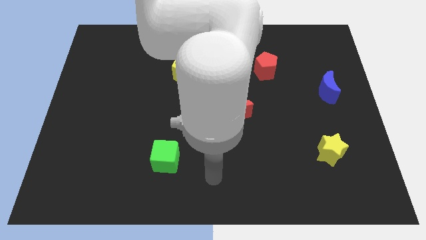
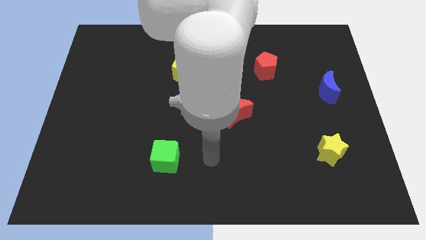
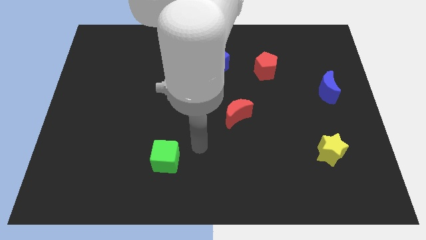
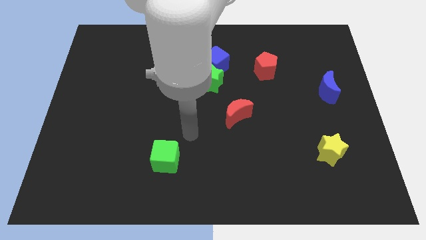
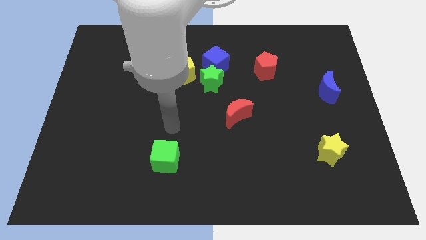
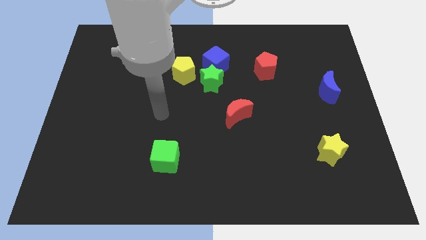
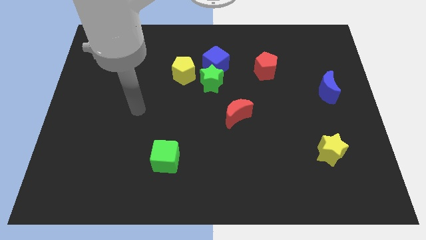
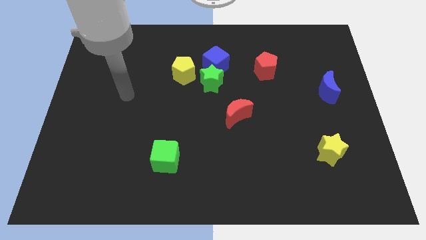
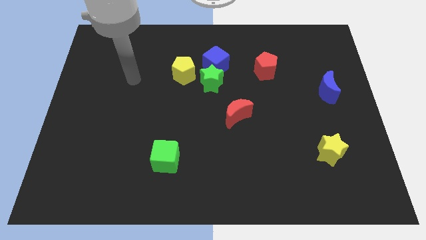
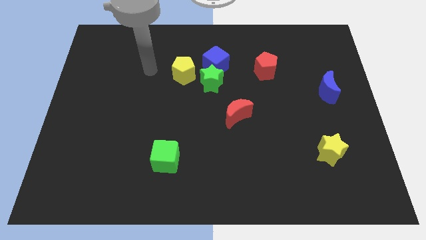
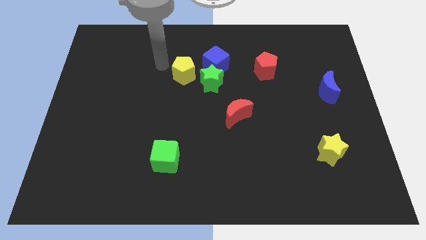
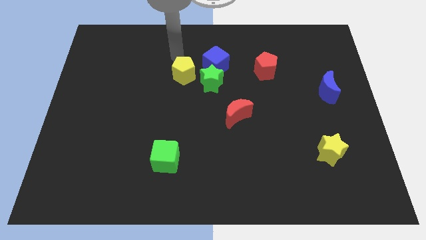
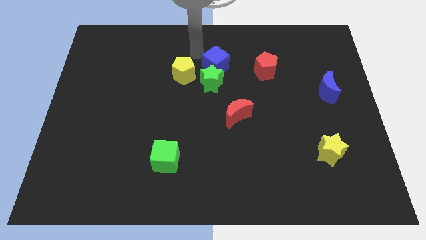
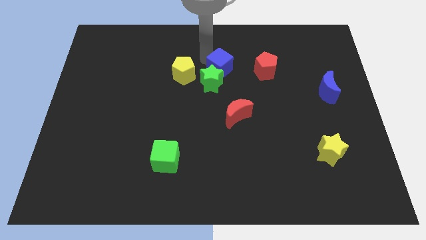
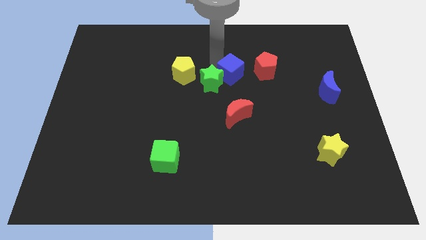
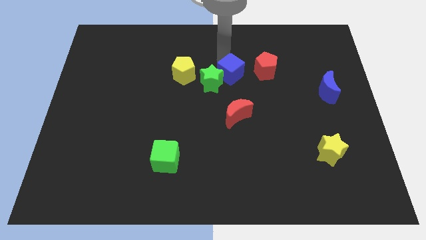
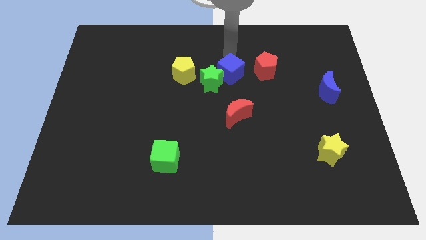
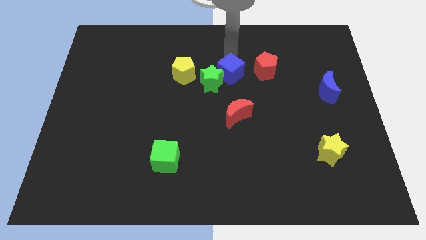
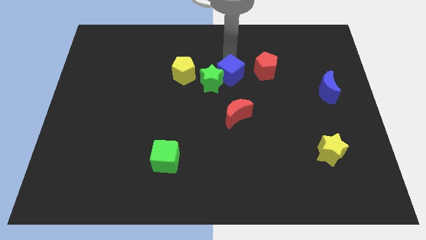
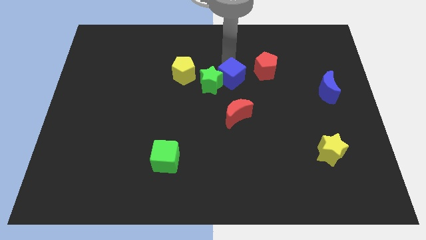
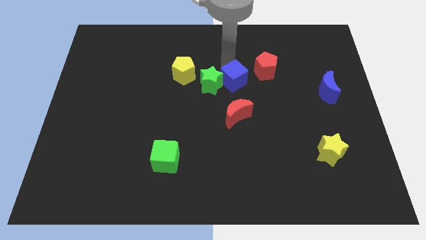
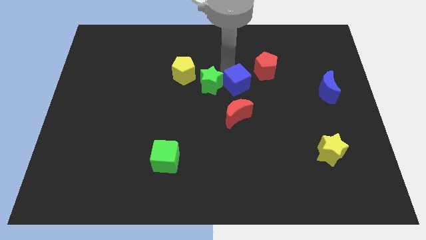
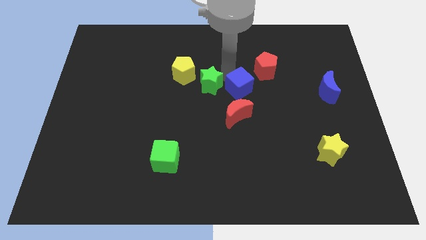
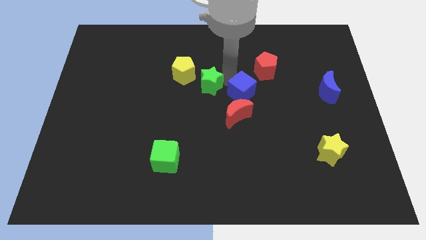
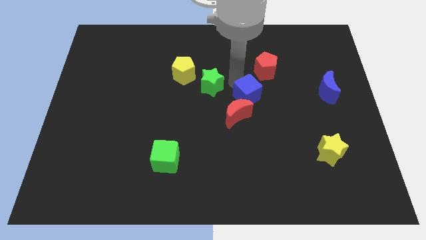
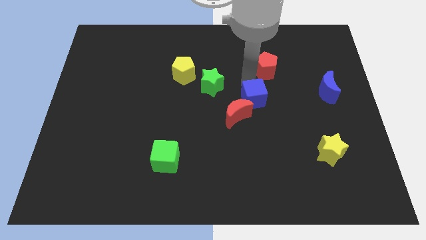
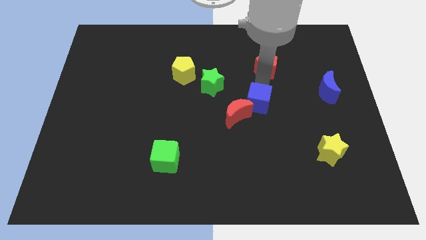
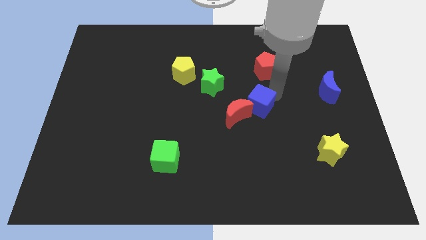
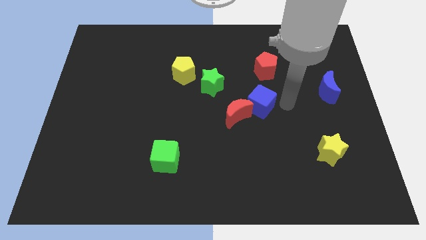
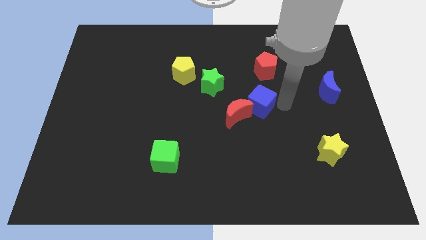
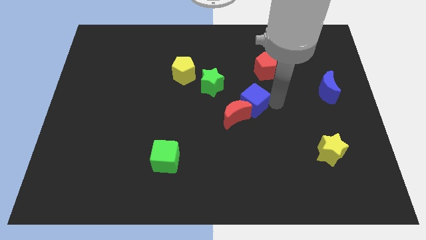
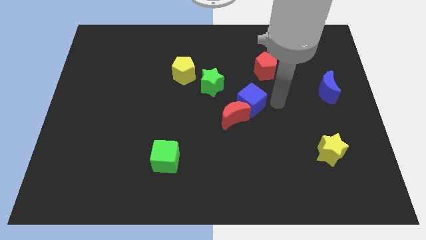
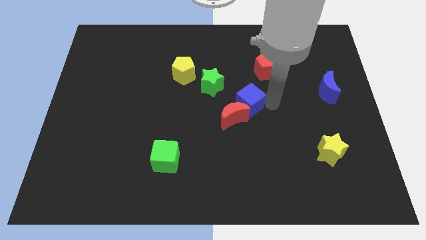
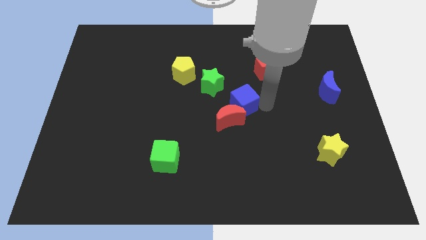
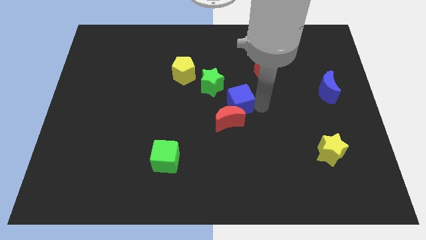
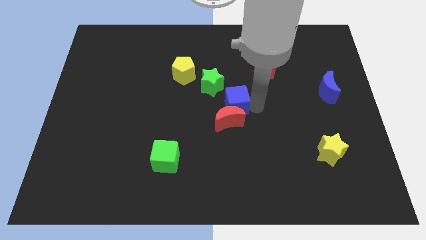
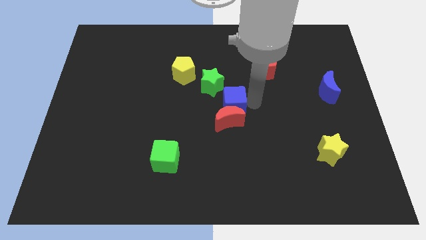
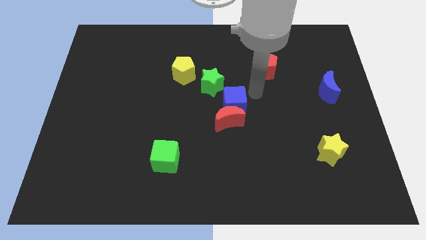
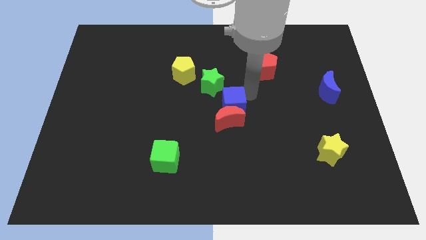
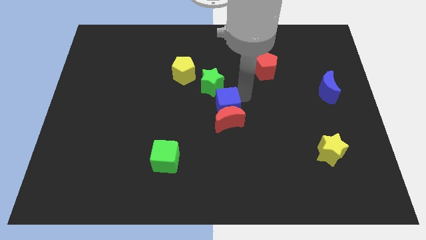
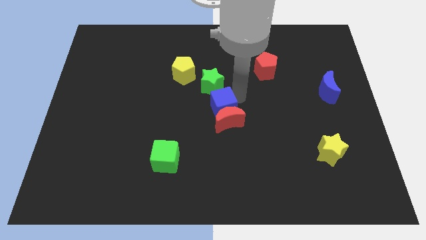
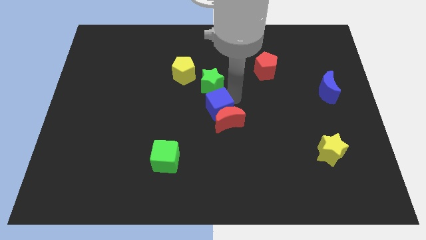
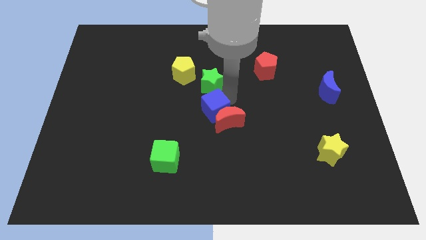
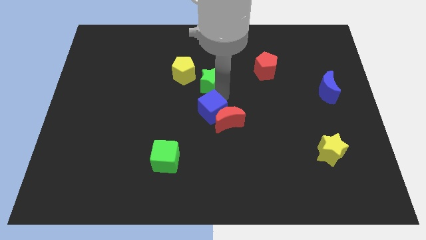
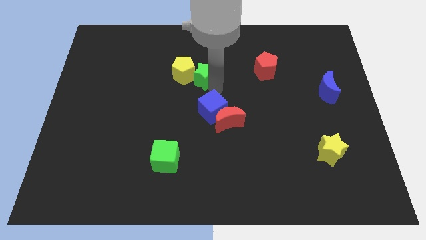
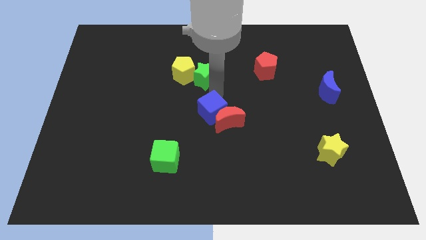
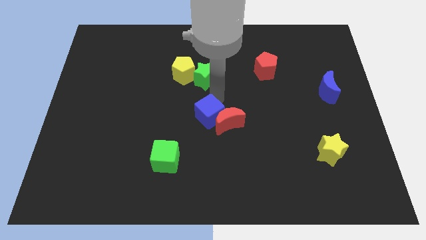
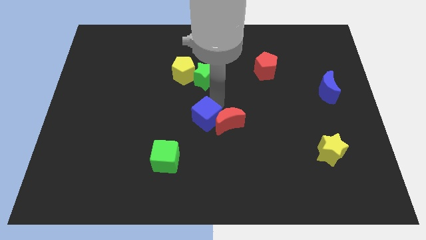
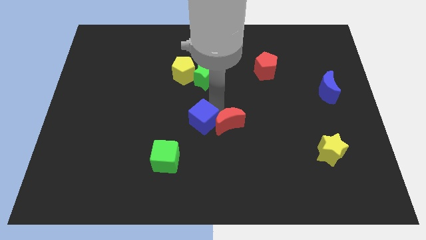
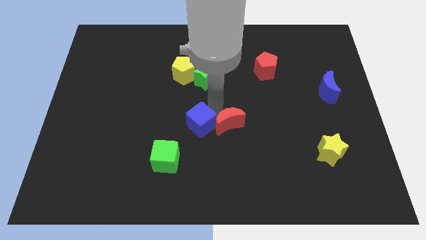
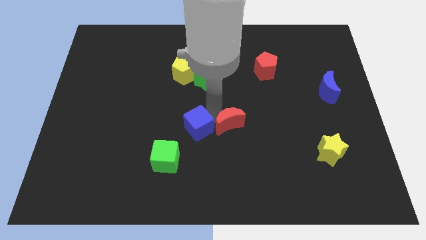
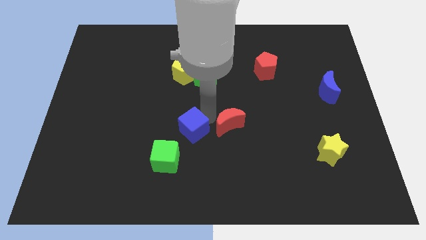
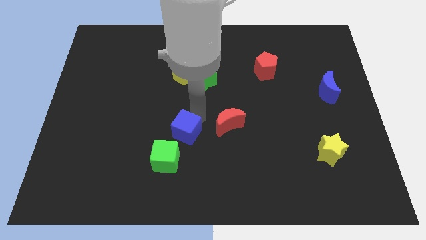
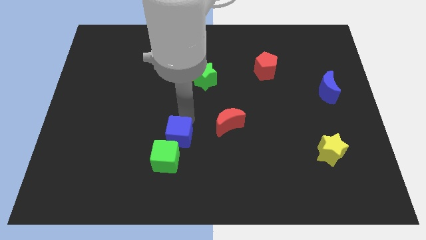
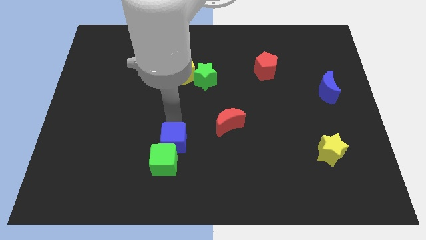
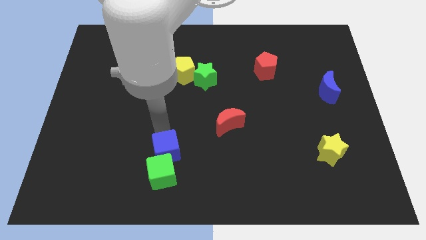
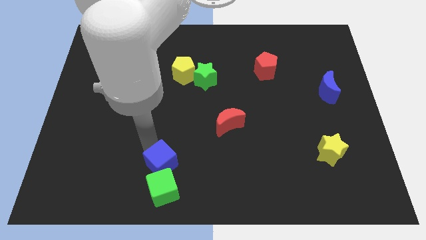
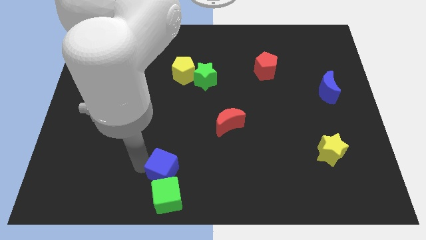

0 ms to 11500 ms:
push the blue cube to the bottom
